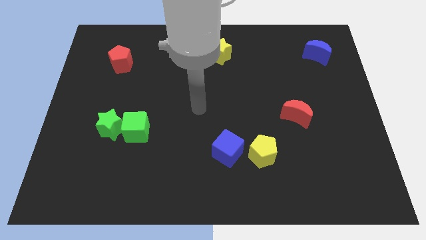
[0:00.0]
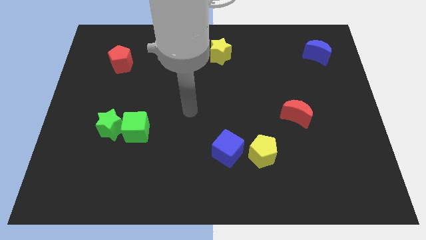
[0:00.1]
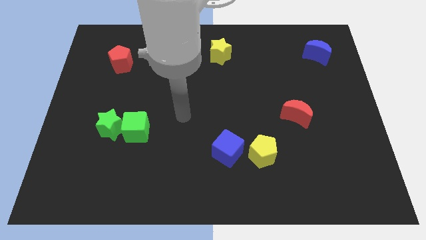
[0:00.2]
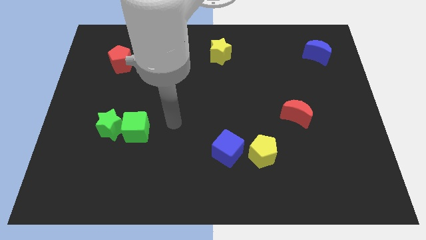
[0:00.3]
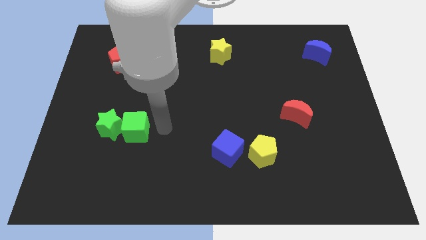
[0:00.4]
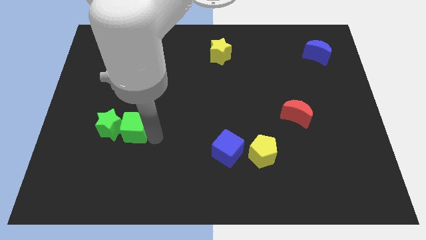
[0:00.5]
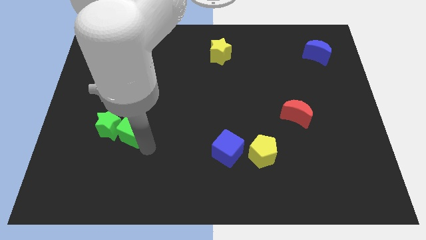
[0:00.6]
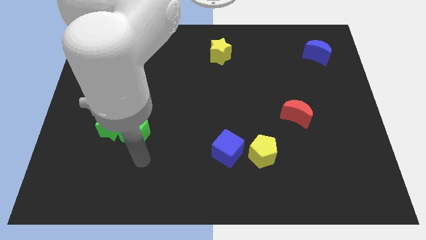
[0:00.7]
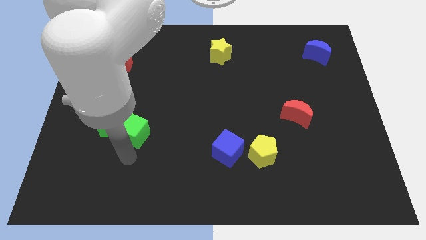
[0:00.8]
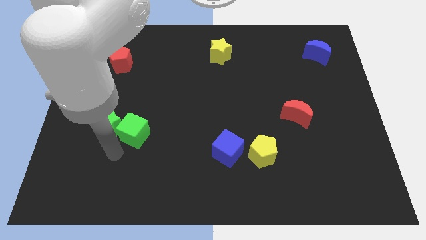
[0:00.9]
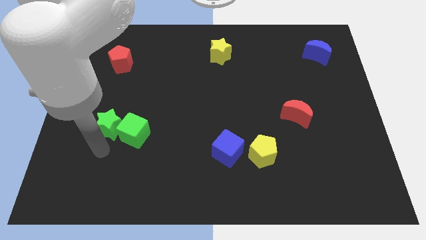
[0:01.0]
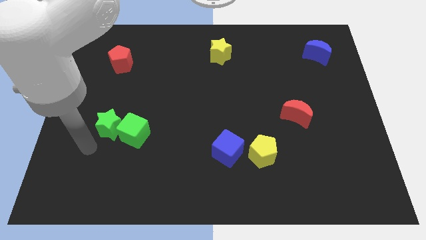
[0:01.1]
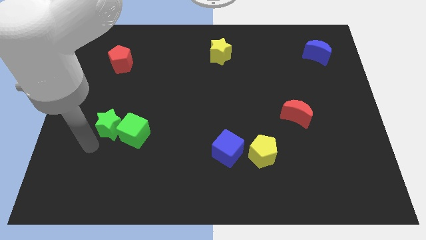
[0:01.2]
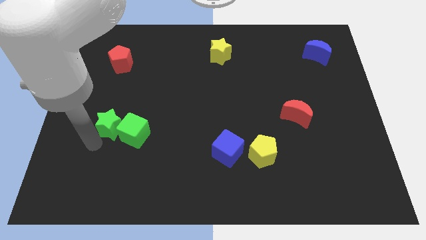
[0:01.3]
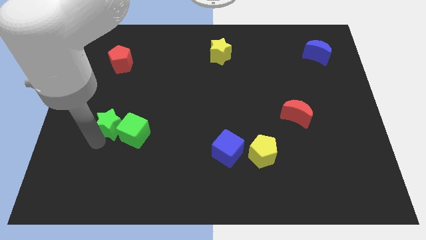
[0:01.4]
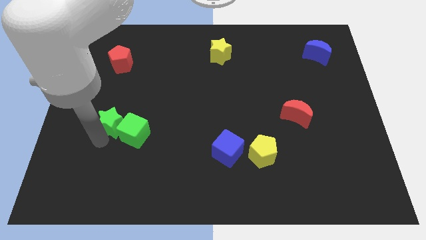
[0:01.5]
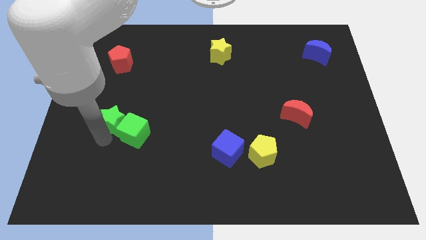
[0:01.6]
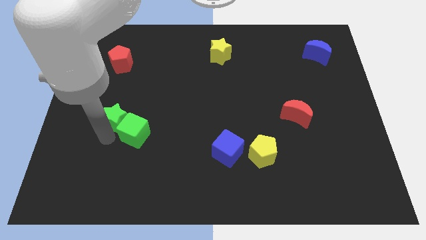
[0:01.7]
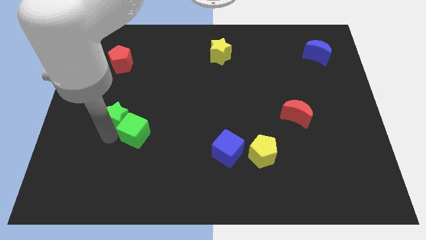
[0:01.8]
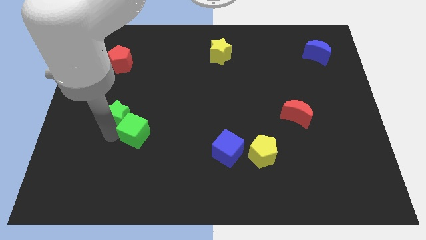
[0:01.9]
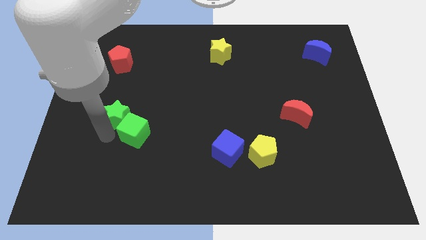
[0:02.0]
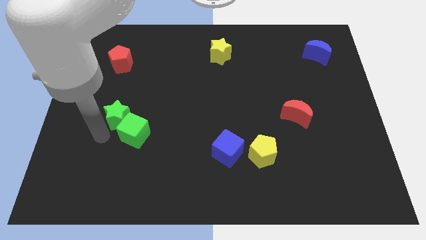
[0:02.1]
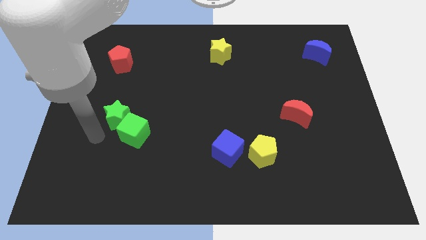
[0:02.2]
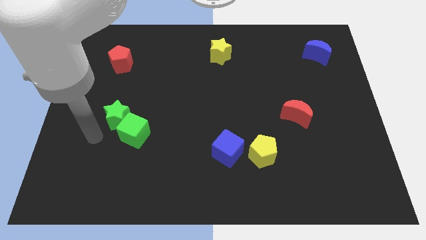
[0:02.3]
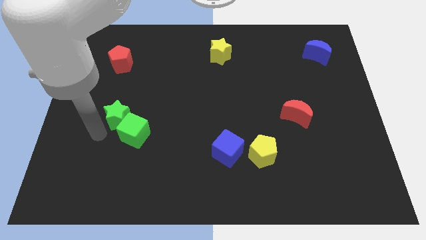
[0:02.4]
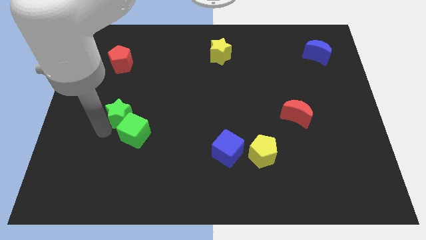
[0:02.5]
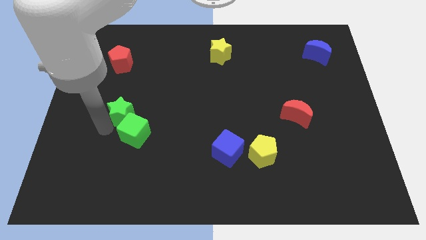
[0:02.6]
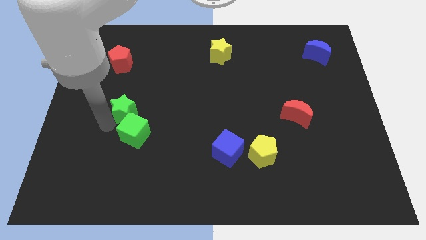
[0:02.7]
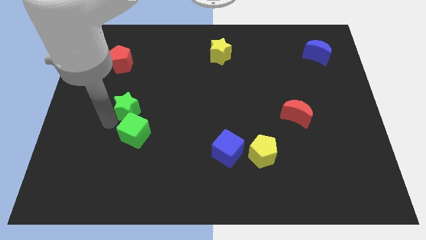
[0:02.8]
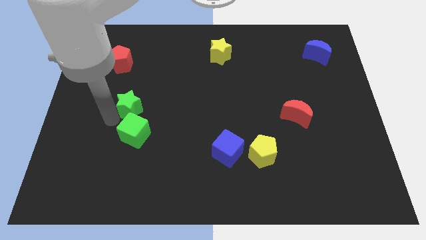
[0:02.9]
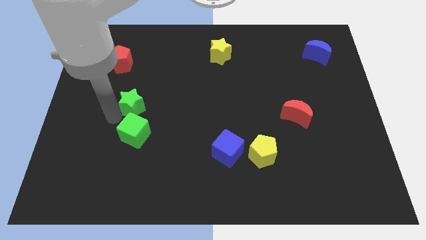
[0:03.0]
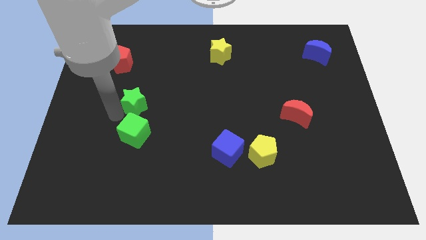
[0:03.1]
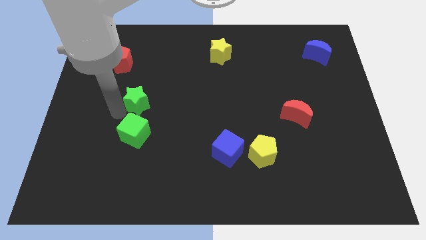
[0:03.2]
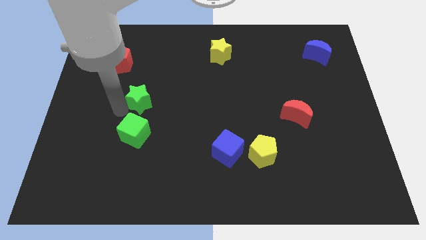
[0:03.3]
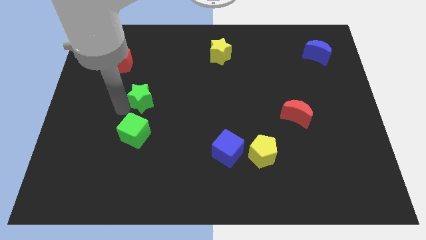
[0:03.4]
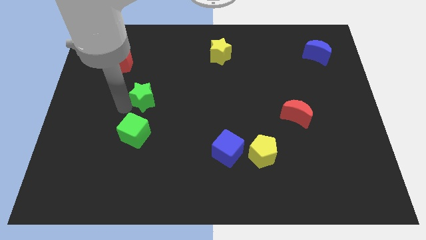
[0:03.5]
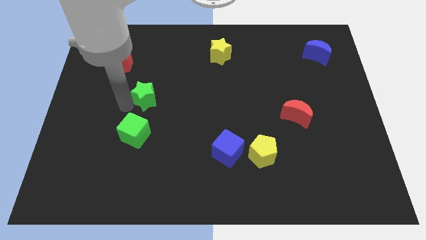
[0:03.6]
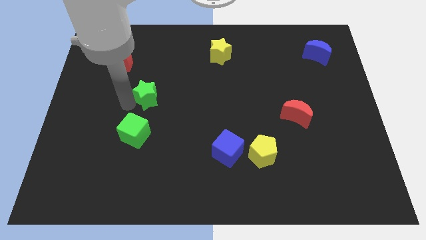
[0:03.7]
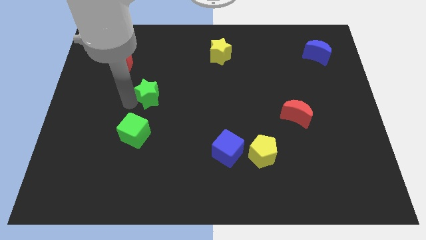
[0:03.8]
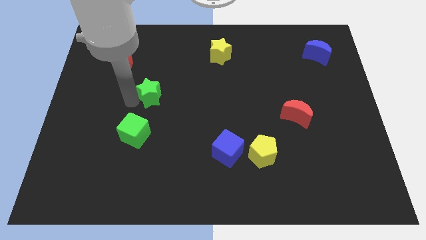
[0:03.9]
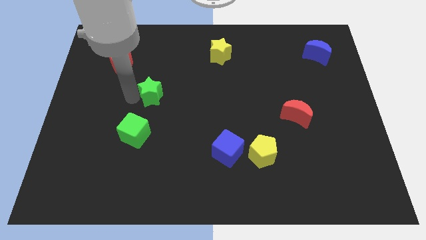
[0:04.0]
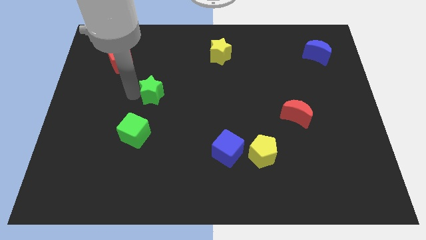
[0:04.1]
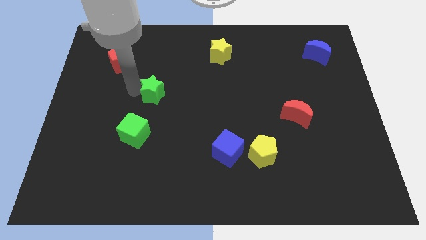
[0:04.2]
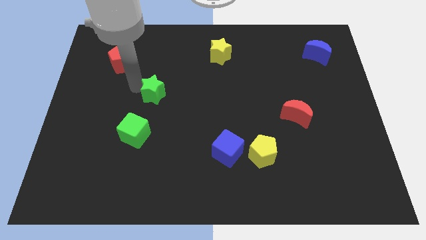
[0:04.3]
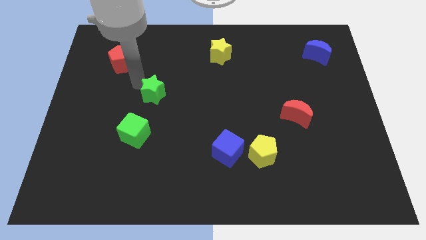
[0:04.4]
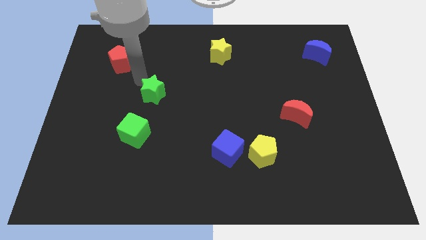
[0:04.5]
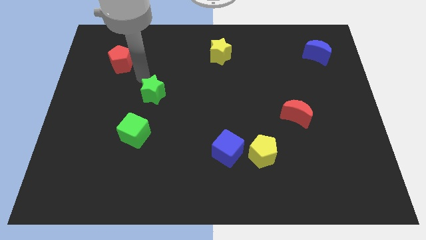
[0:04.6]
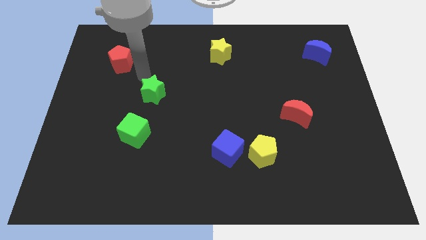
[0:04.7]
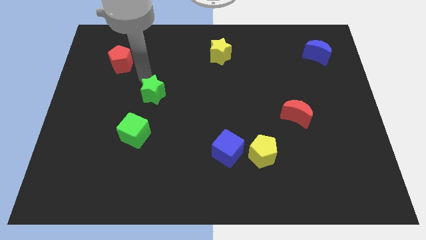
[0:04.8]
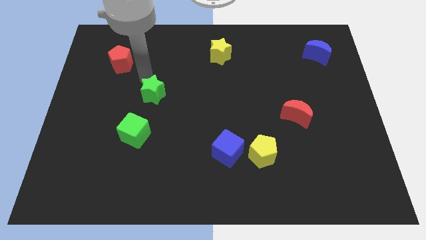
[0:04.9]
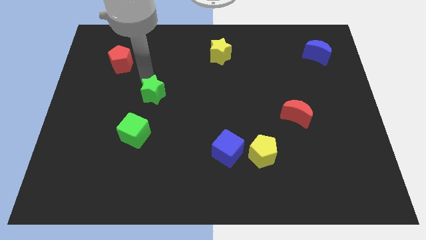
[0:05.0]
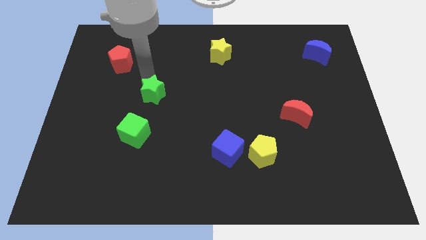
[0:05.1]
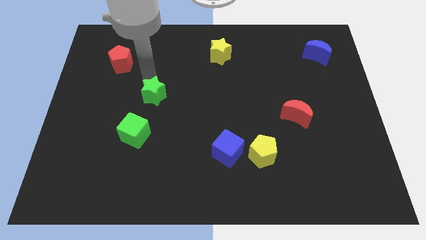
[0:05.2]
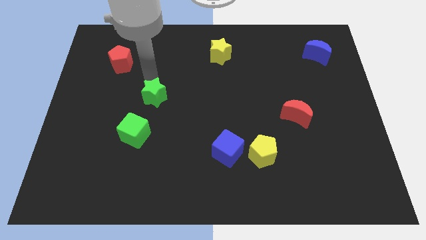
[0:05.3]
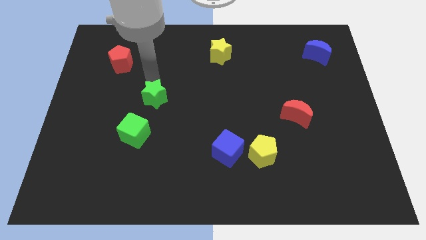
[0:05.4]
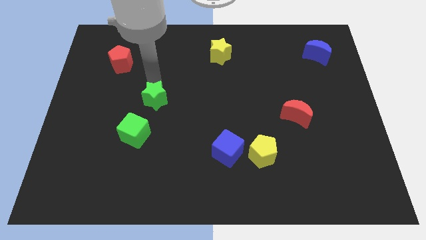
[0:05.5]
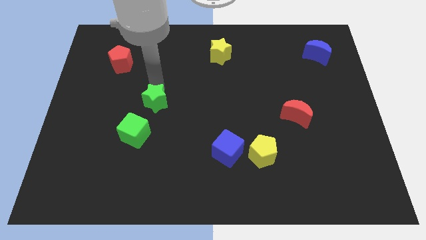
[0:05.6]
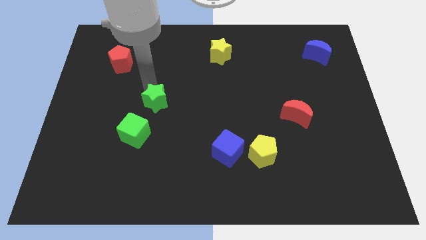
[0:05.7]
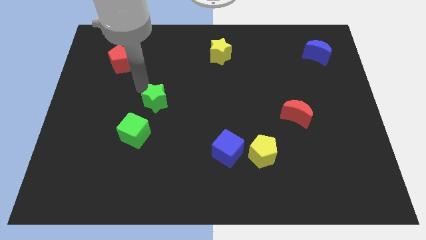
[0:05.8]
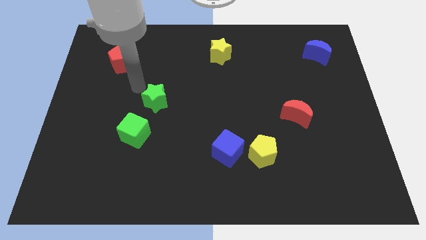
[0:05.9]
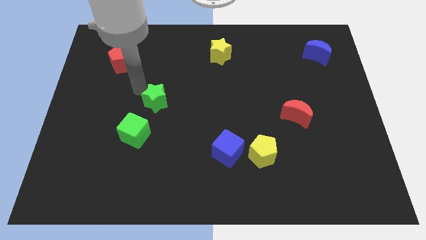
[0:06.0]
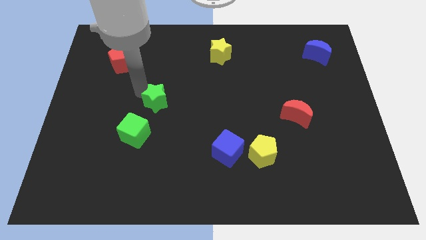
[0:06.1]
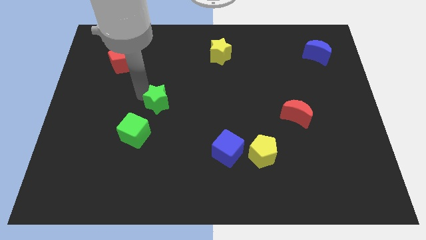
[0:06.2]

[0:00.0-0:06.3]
move the green star right somewhat

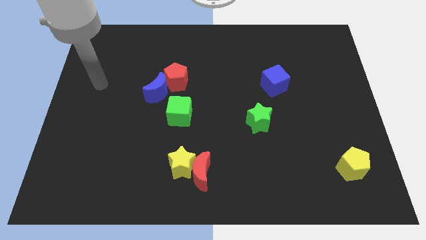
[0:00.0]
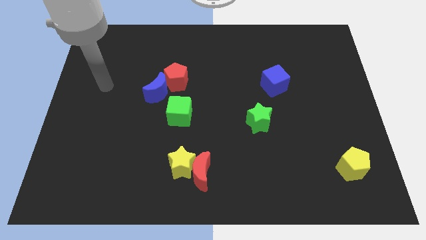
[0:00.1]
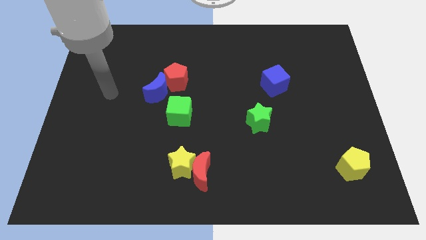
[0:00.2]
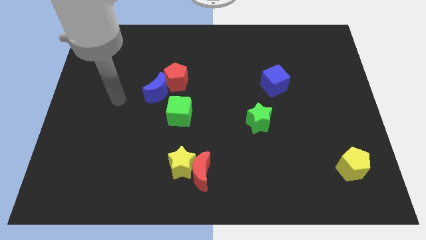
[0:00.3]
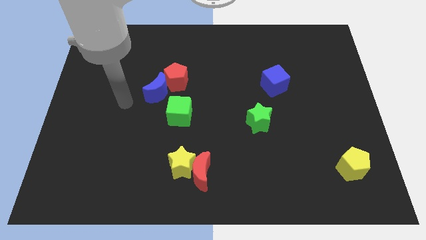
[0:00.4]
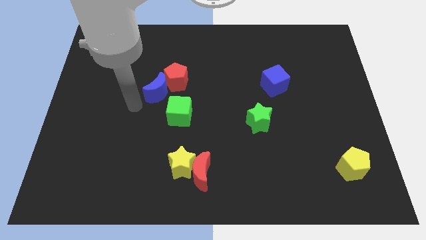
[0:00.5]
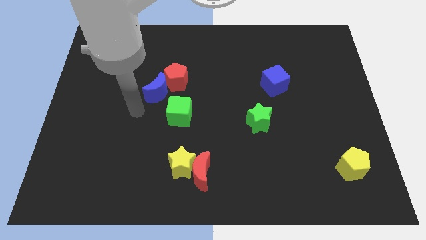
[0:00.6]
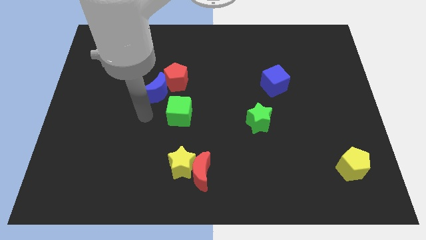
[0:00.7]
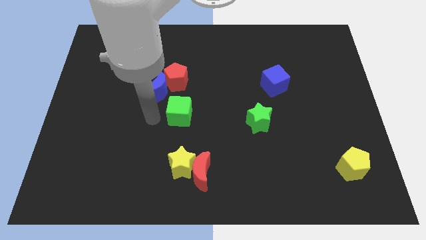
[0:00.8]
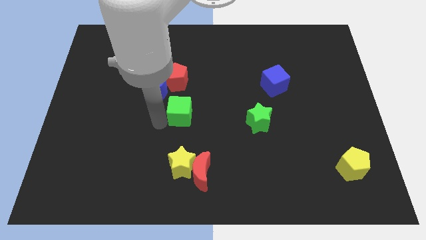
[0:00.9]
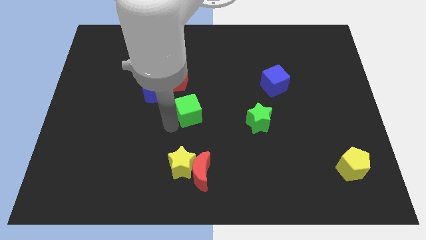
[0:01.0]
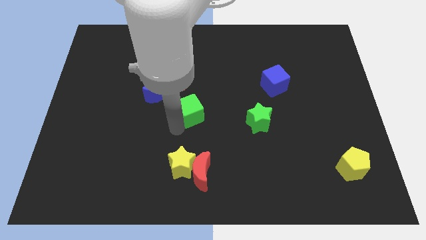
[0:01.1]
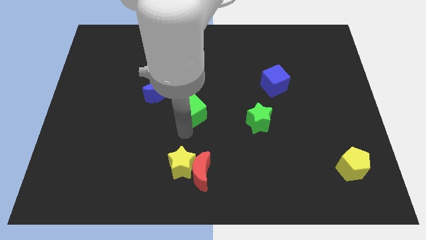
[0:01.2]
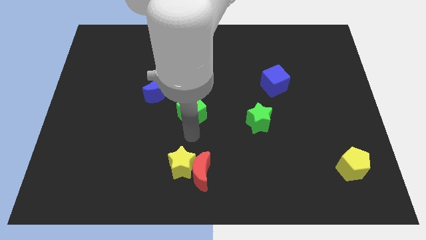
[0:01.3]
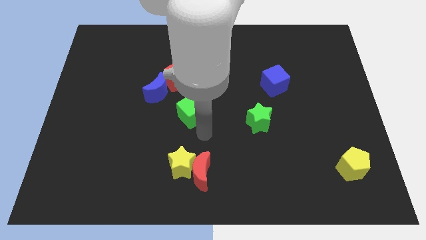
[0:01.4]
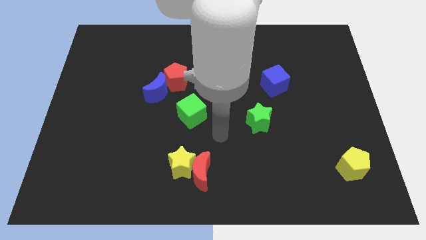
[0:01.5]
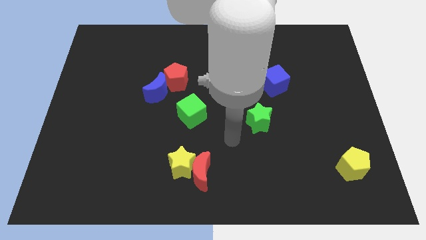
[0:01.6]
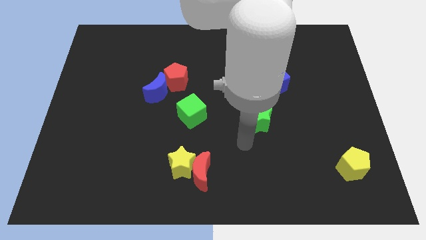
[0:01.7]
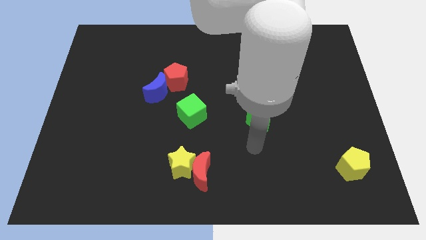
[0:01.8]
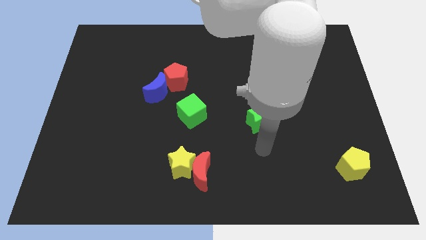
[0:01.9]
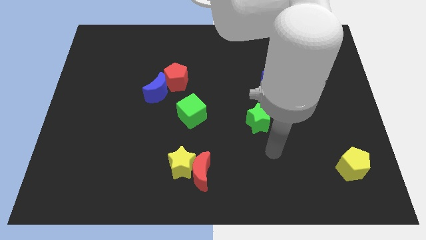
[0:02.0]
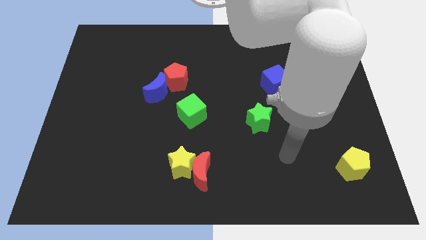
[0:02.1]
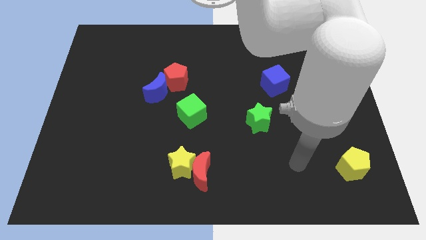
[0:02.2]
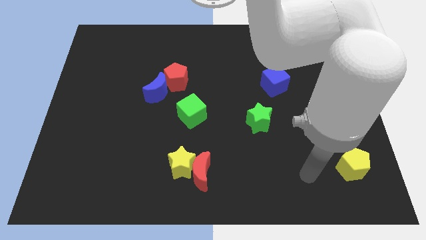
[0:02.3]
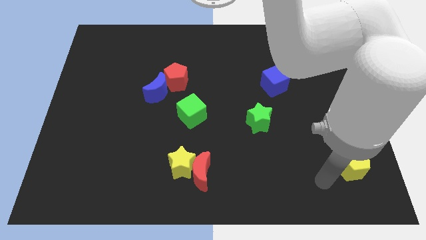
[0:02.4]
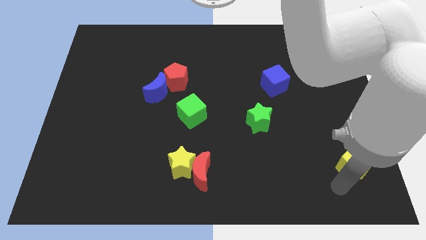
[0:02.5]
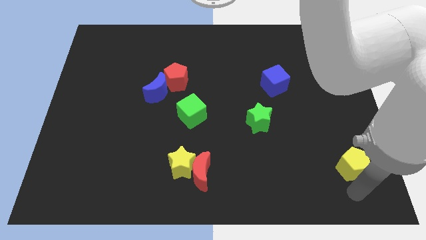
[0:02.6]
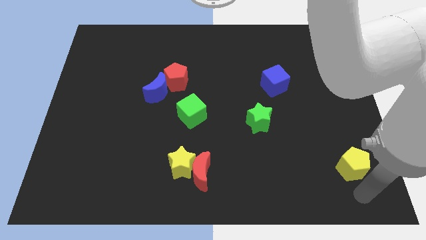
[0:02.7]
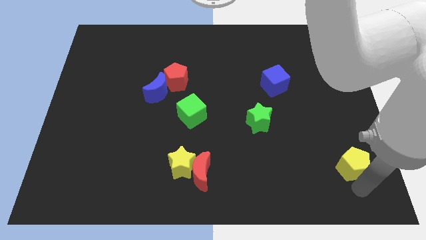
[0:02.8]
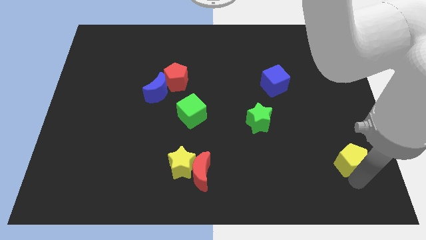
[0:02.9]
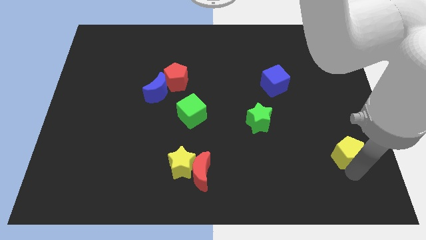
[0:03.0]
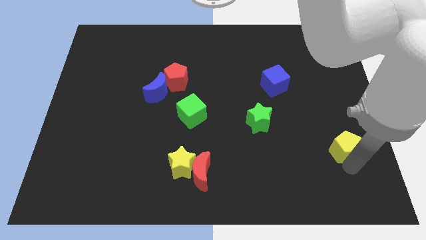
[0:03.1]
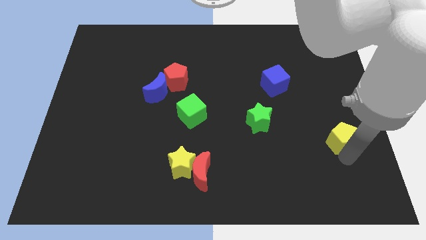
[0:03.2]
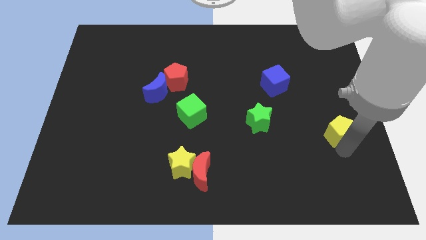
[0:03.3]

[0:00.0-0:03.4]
slightly slide the yellow pentagon upwards
